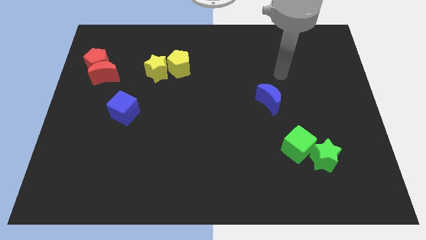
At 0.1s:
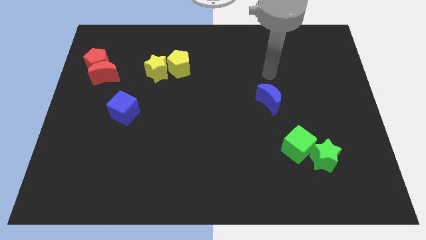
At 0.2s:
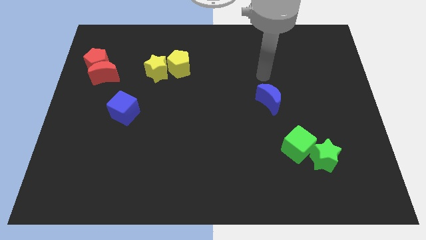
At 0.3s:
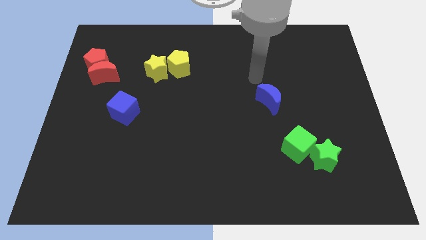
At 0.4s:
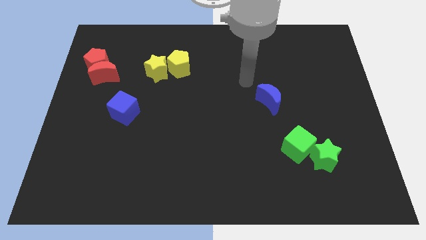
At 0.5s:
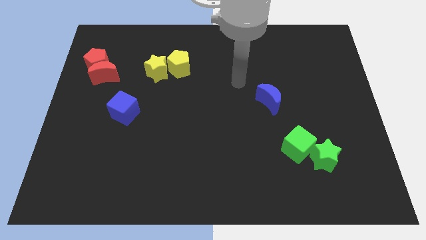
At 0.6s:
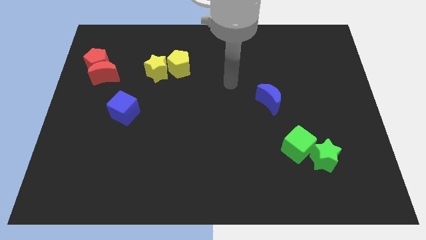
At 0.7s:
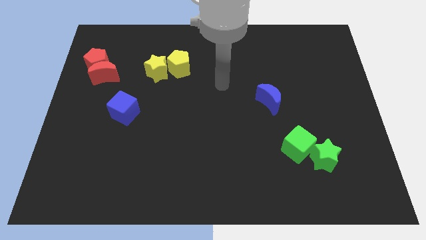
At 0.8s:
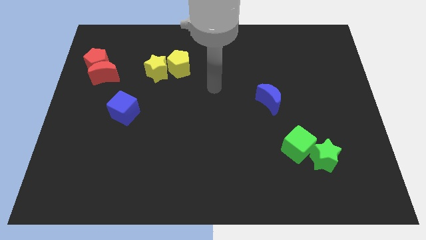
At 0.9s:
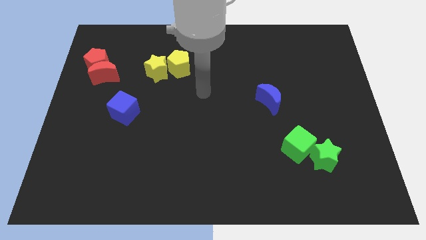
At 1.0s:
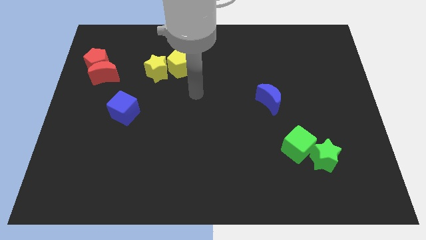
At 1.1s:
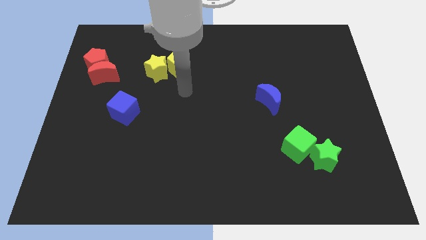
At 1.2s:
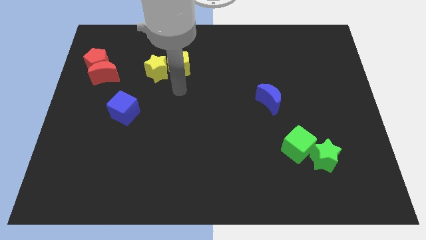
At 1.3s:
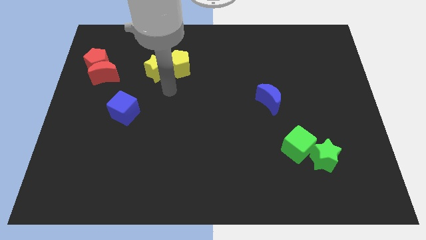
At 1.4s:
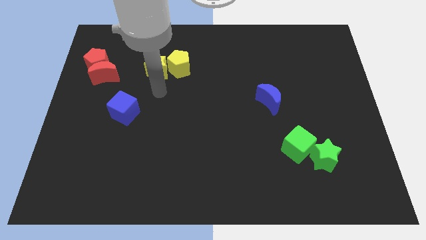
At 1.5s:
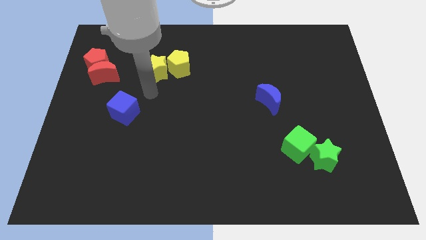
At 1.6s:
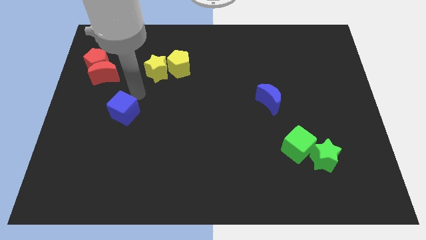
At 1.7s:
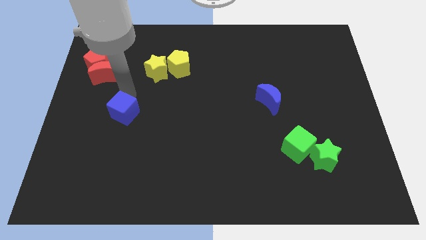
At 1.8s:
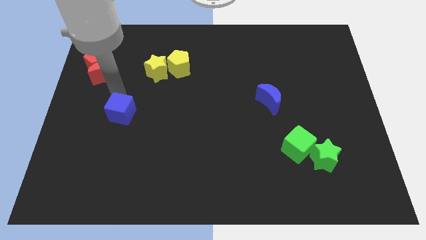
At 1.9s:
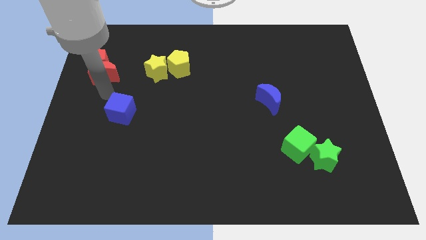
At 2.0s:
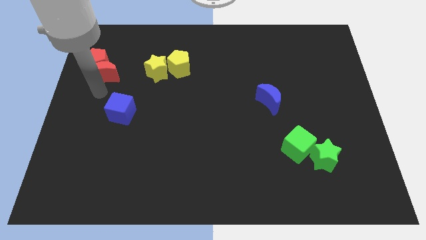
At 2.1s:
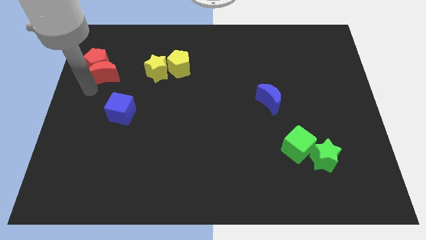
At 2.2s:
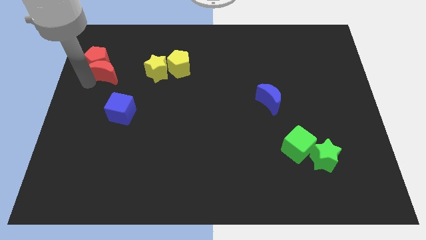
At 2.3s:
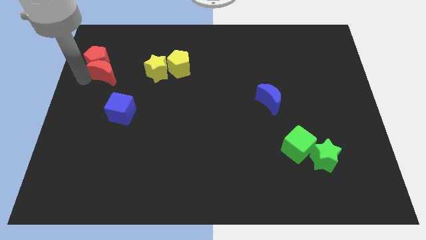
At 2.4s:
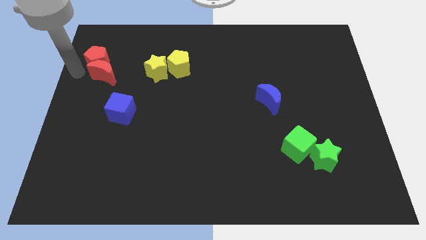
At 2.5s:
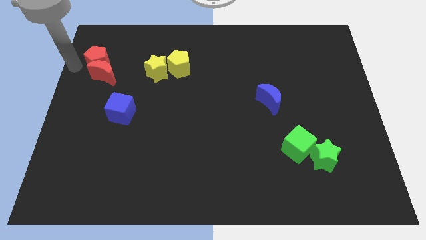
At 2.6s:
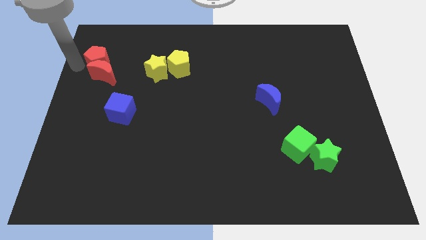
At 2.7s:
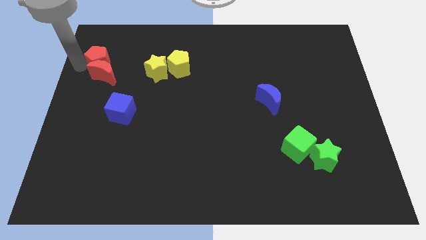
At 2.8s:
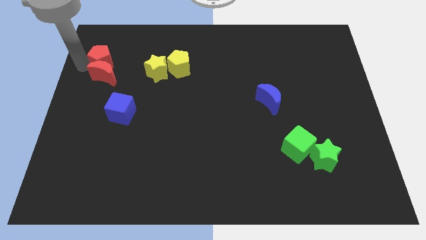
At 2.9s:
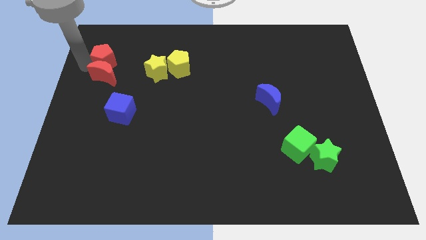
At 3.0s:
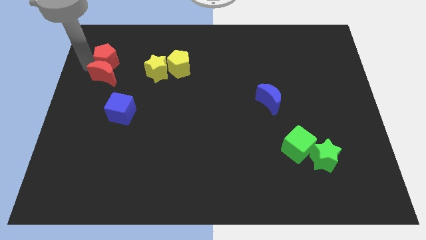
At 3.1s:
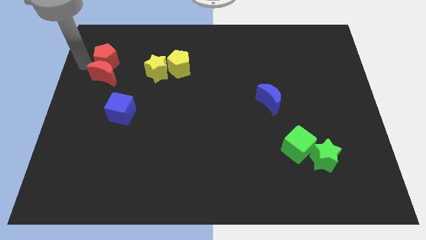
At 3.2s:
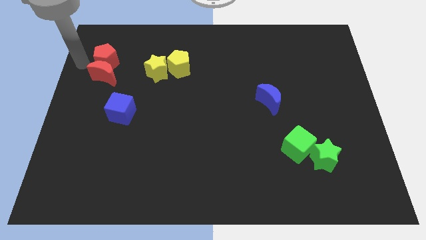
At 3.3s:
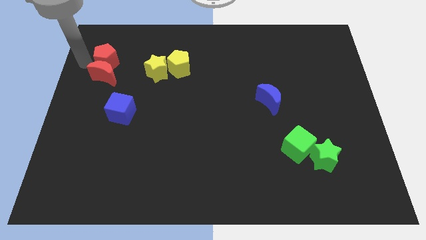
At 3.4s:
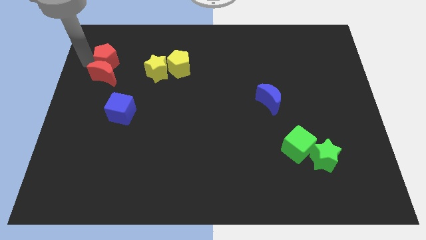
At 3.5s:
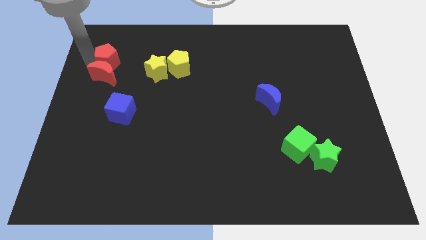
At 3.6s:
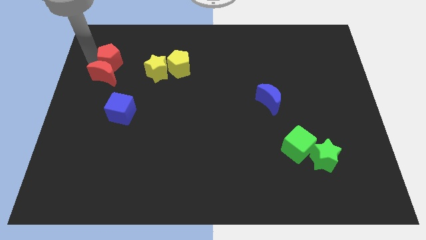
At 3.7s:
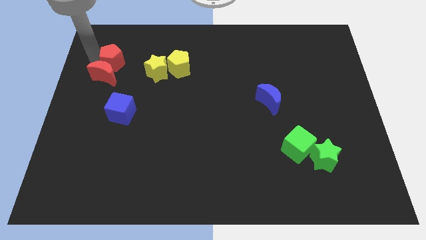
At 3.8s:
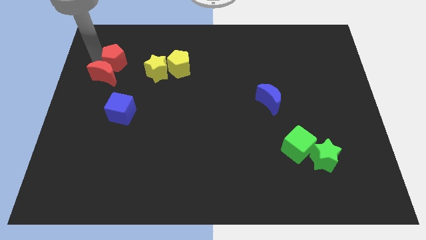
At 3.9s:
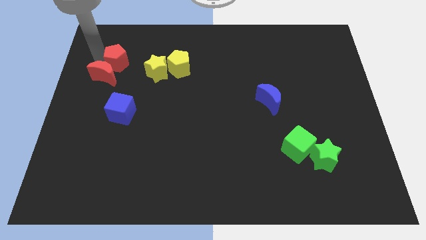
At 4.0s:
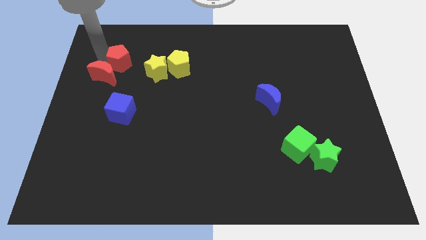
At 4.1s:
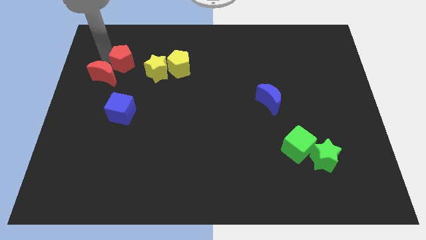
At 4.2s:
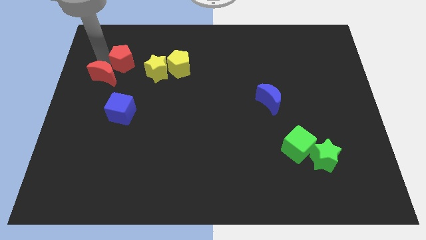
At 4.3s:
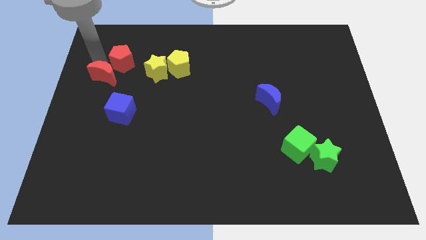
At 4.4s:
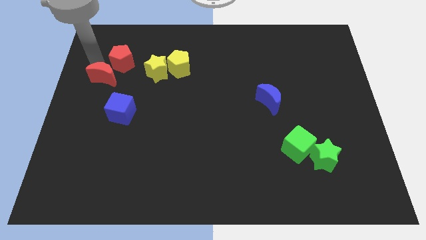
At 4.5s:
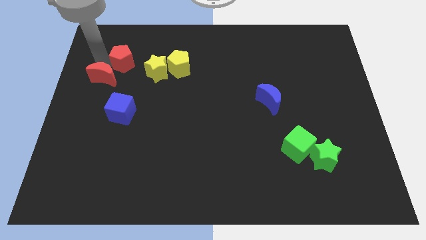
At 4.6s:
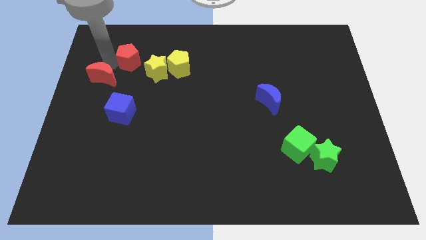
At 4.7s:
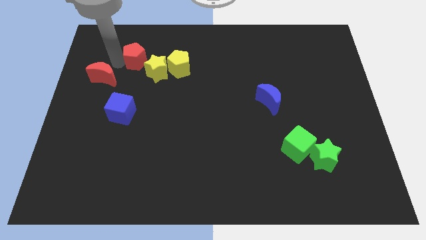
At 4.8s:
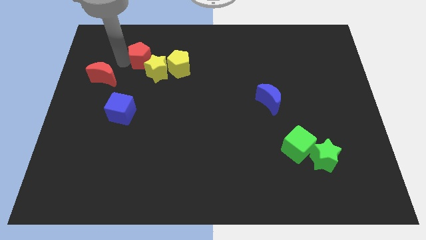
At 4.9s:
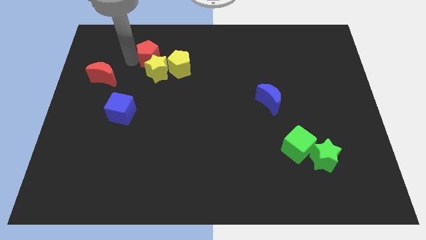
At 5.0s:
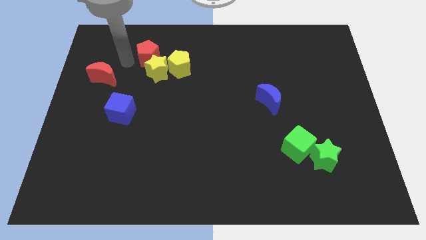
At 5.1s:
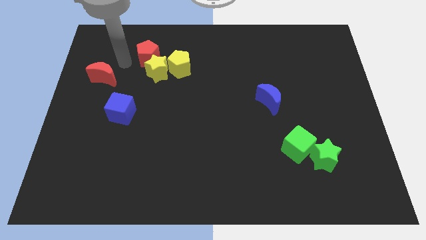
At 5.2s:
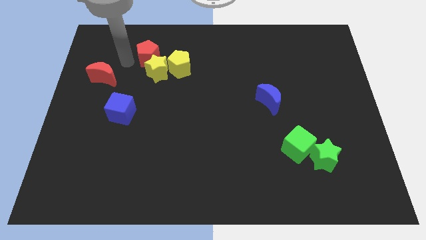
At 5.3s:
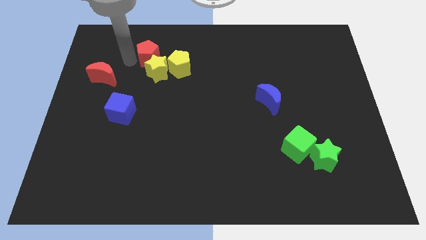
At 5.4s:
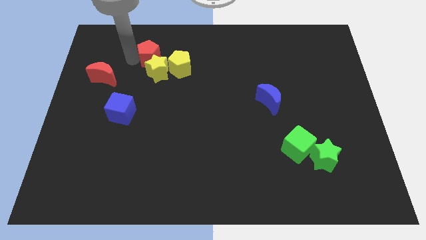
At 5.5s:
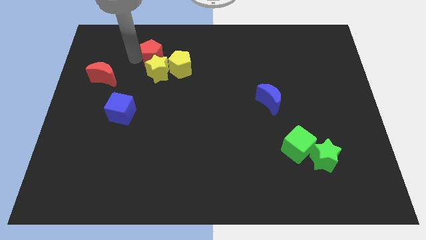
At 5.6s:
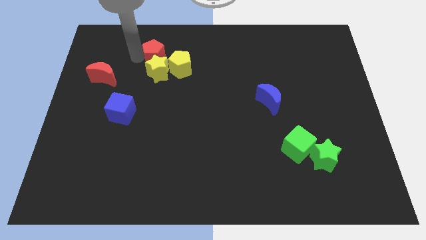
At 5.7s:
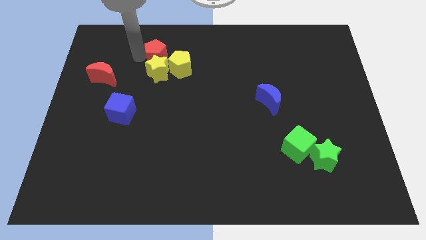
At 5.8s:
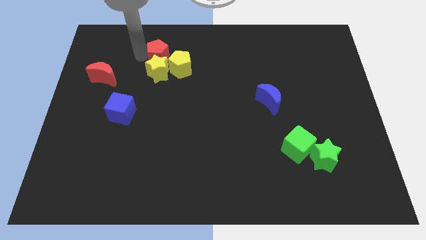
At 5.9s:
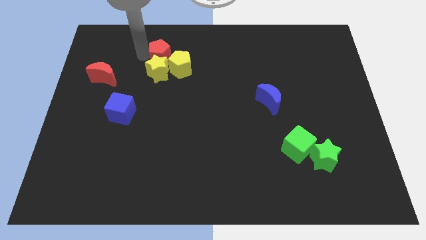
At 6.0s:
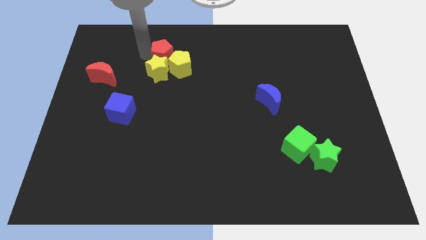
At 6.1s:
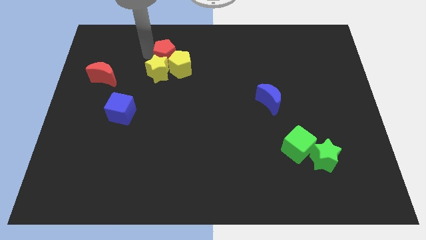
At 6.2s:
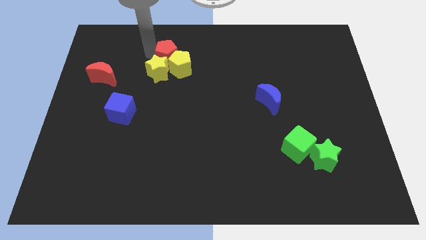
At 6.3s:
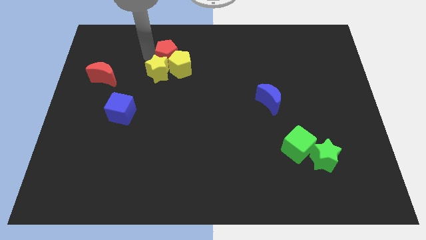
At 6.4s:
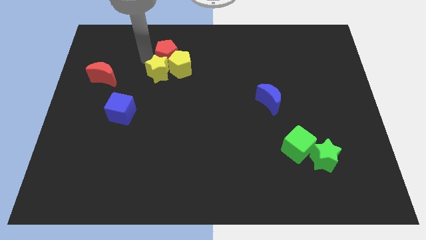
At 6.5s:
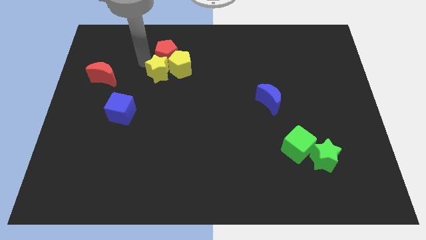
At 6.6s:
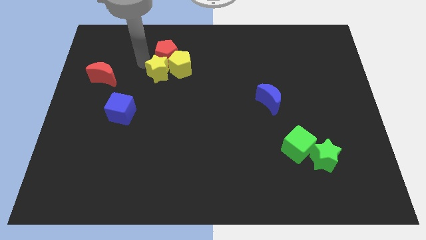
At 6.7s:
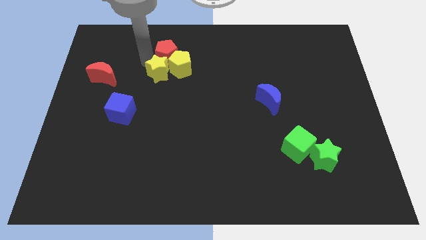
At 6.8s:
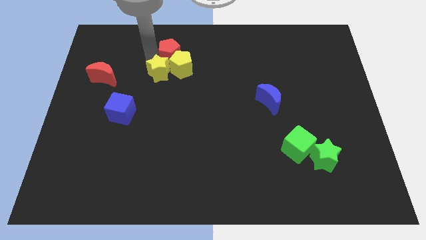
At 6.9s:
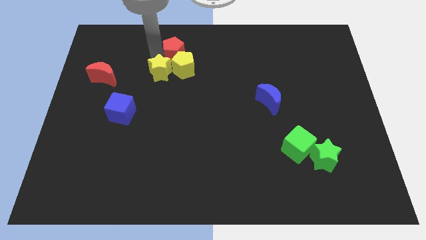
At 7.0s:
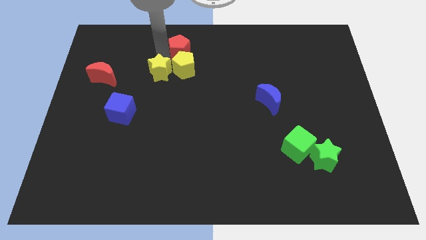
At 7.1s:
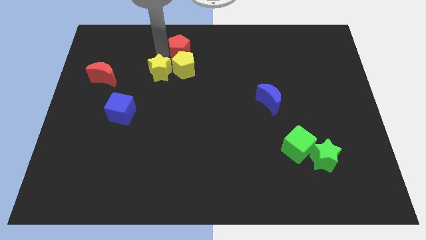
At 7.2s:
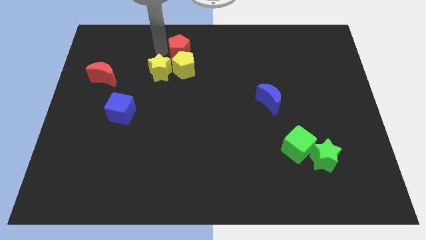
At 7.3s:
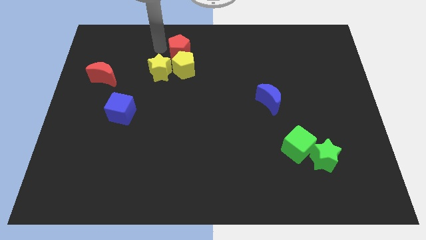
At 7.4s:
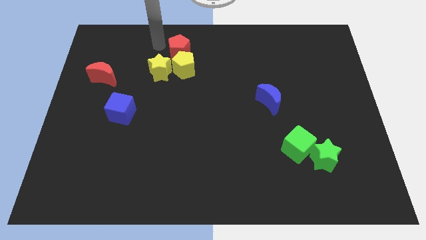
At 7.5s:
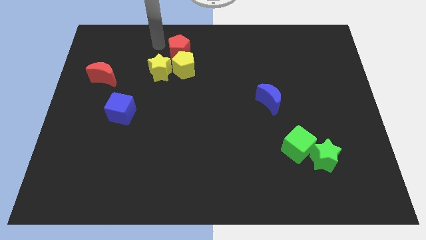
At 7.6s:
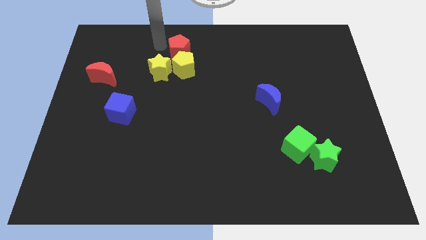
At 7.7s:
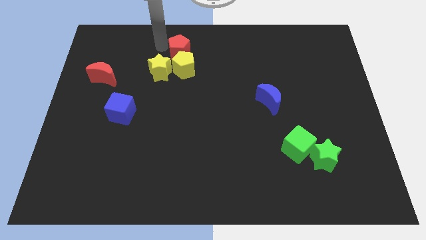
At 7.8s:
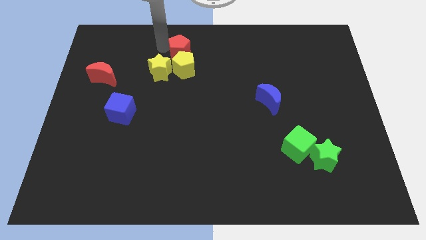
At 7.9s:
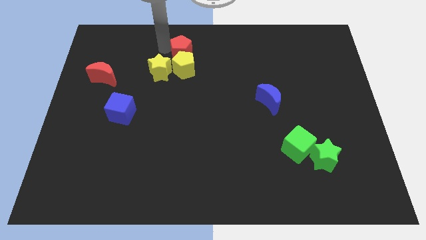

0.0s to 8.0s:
move the red pentagon to the right

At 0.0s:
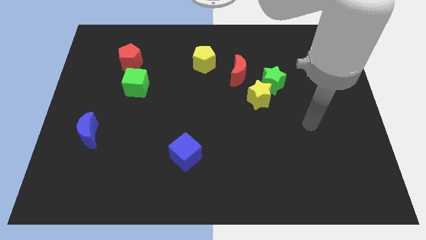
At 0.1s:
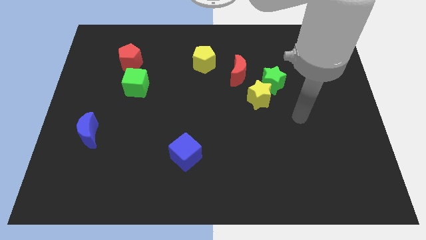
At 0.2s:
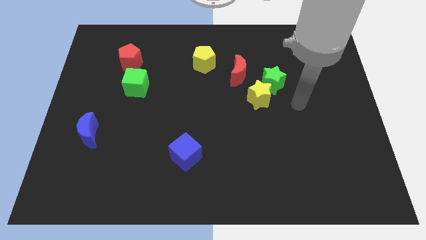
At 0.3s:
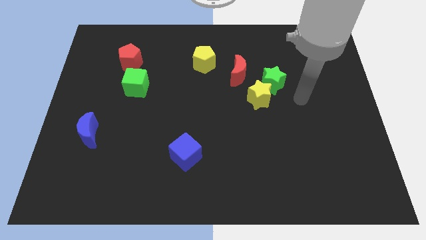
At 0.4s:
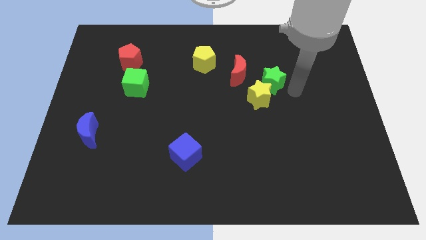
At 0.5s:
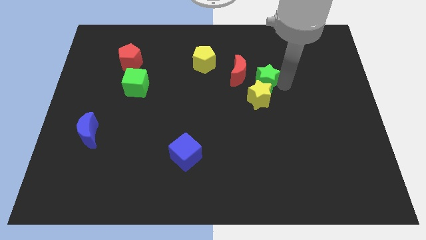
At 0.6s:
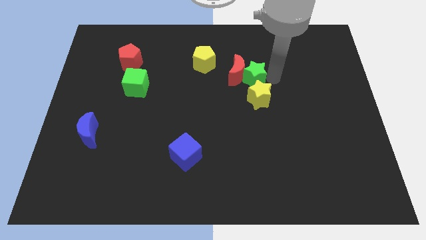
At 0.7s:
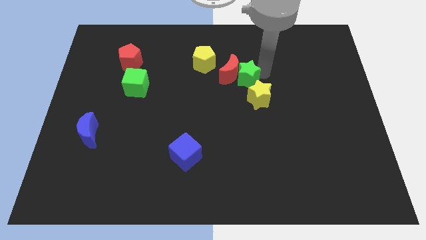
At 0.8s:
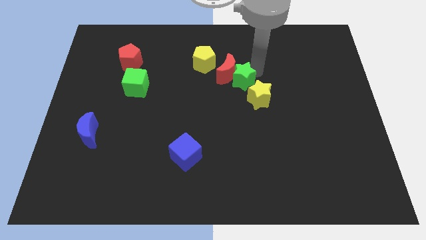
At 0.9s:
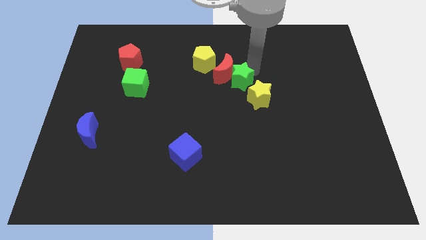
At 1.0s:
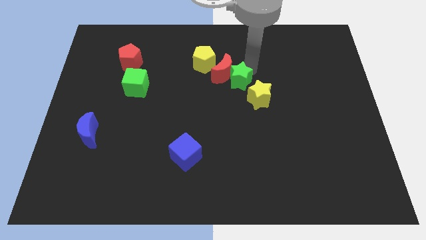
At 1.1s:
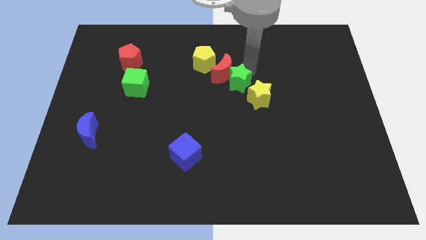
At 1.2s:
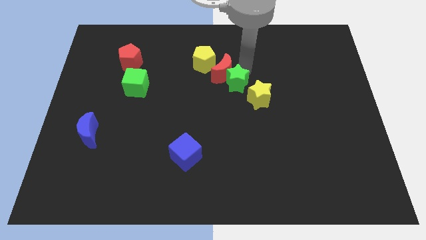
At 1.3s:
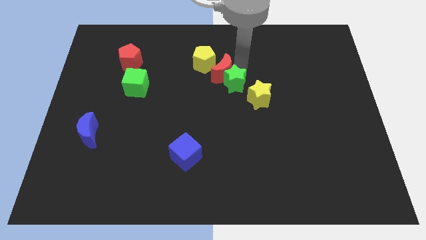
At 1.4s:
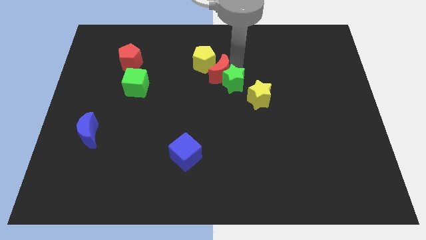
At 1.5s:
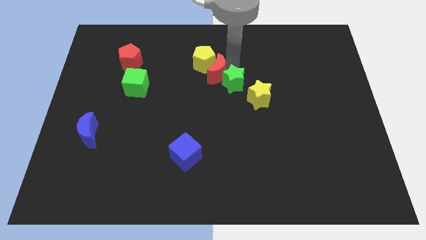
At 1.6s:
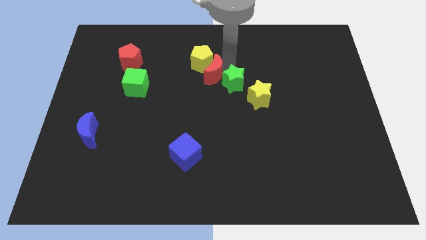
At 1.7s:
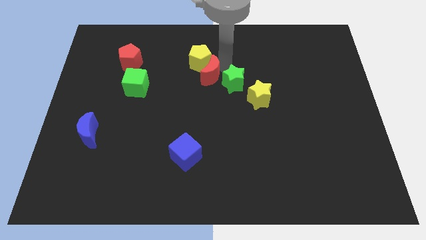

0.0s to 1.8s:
move the red moon to the left a bit
